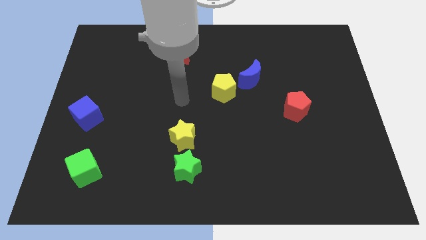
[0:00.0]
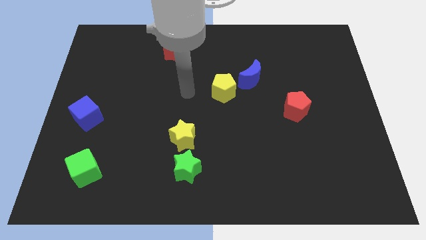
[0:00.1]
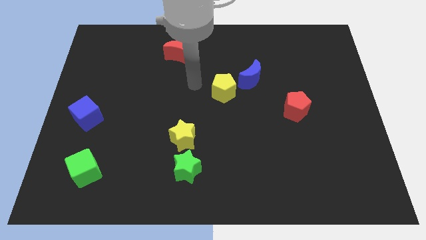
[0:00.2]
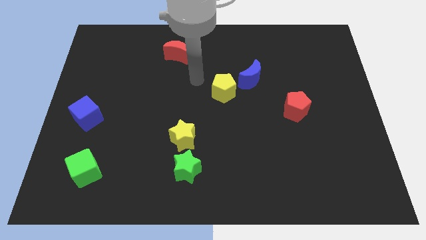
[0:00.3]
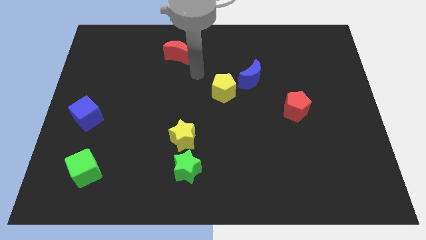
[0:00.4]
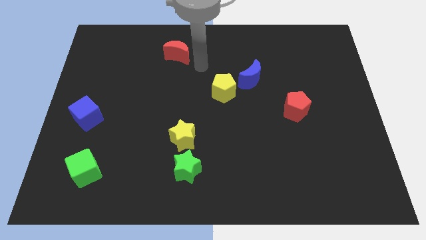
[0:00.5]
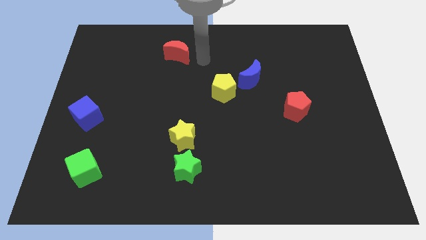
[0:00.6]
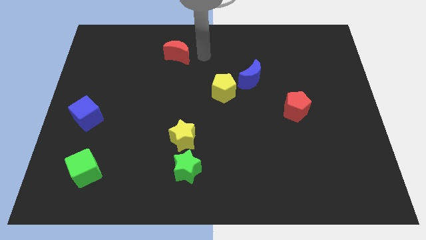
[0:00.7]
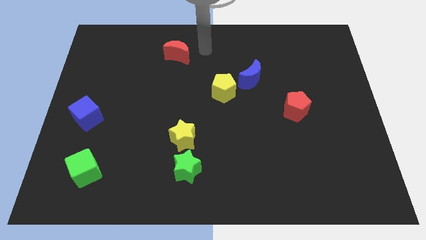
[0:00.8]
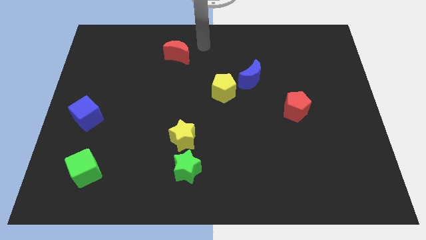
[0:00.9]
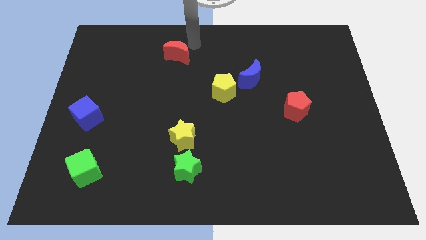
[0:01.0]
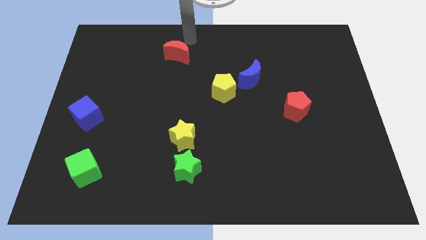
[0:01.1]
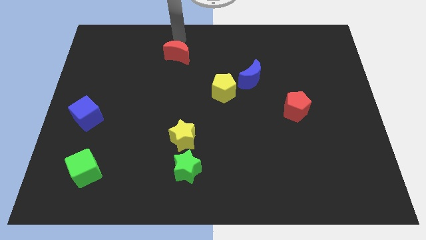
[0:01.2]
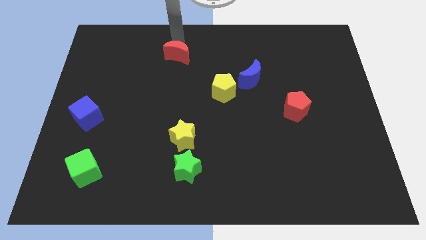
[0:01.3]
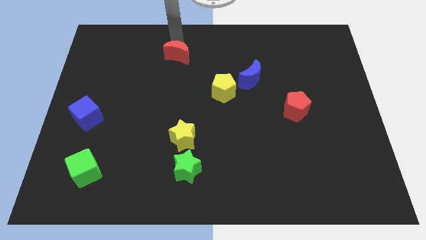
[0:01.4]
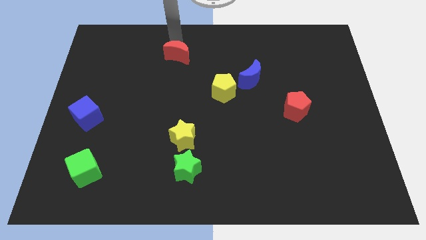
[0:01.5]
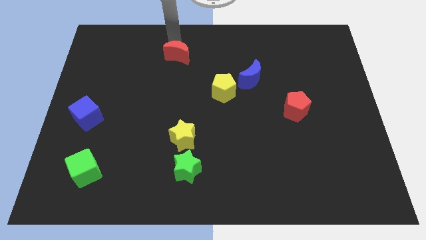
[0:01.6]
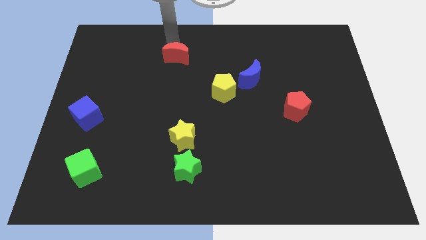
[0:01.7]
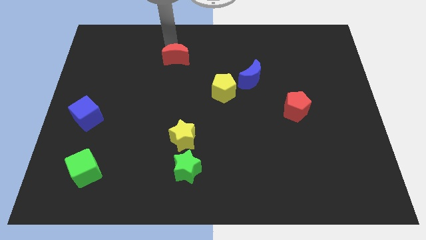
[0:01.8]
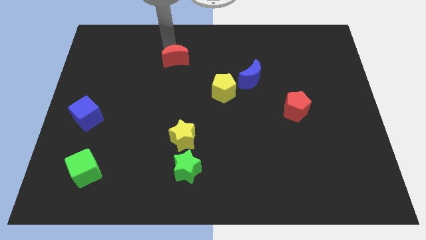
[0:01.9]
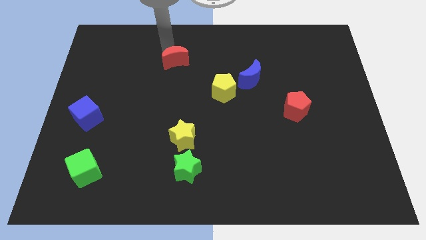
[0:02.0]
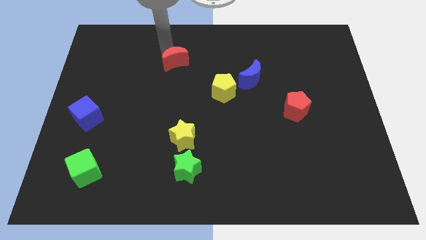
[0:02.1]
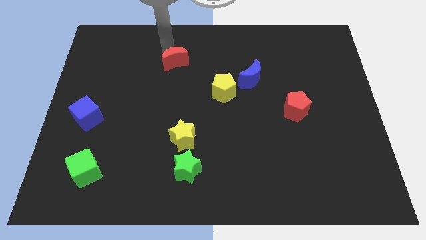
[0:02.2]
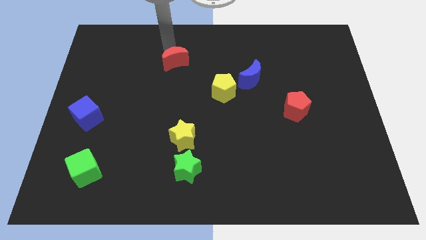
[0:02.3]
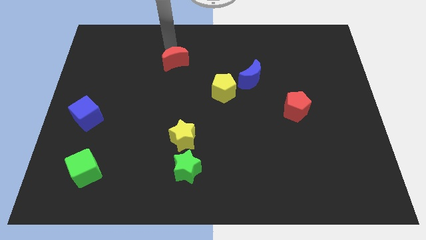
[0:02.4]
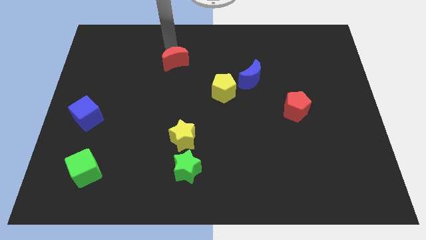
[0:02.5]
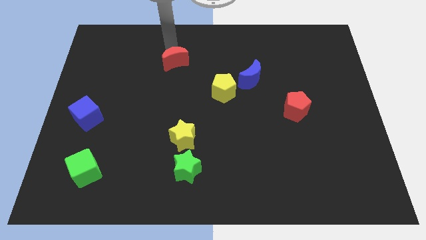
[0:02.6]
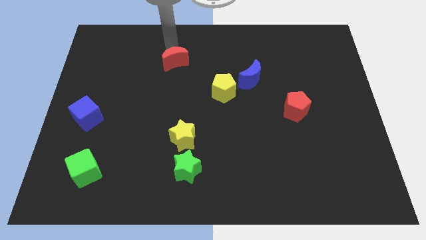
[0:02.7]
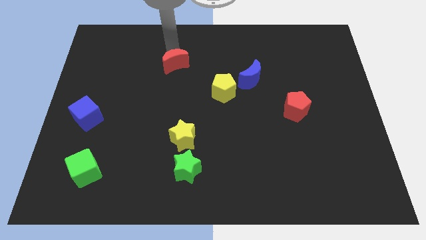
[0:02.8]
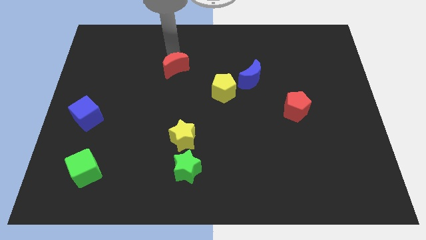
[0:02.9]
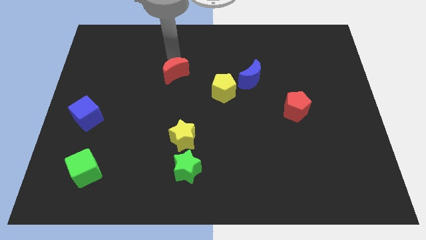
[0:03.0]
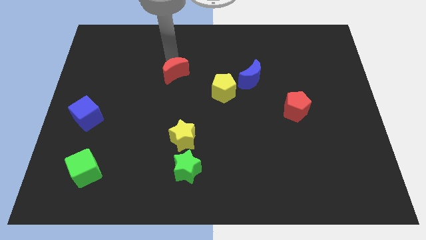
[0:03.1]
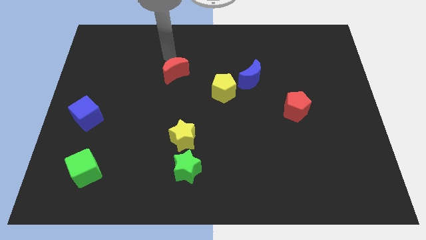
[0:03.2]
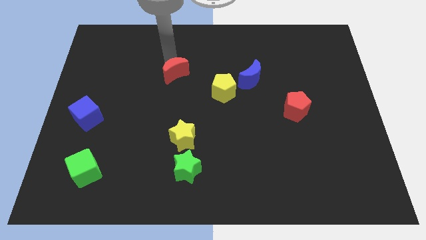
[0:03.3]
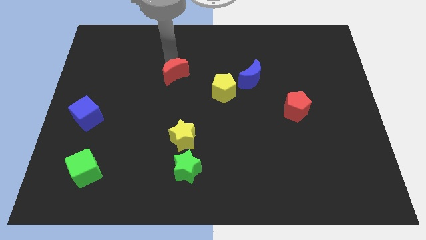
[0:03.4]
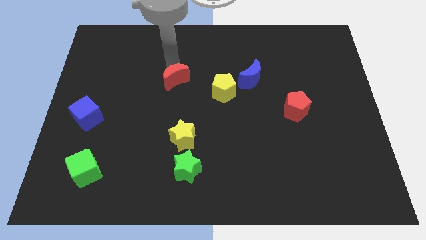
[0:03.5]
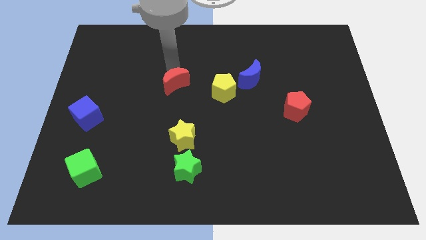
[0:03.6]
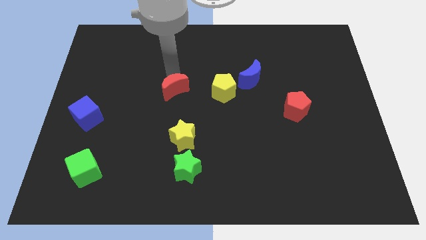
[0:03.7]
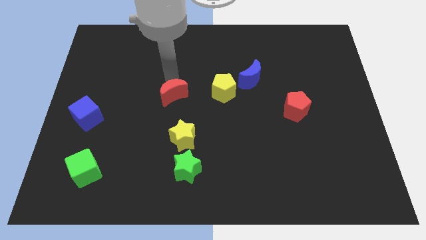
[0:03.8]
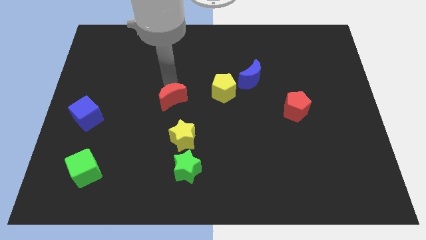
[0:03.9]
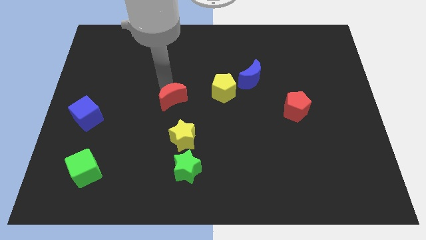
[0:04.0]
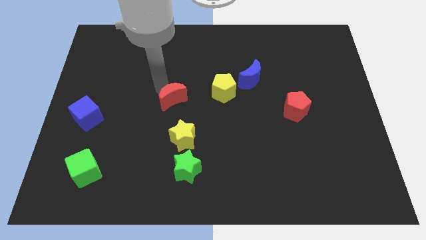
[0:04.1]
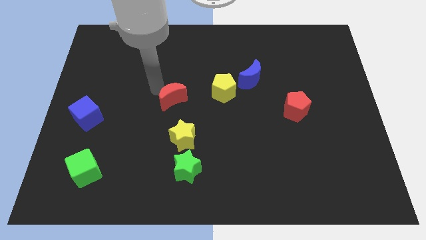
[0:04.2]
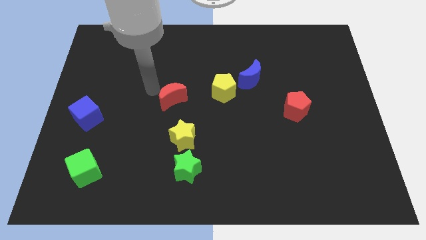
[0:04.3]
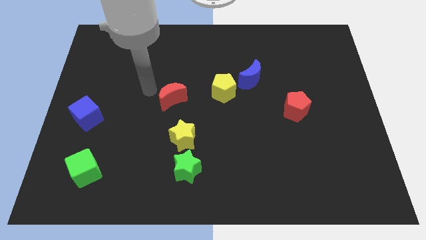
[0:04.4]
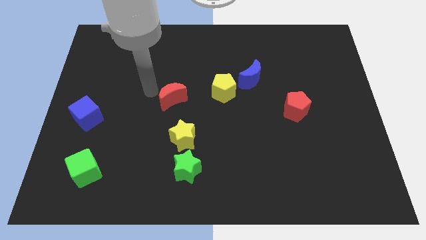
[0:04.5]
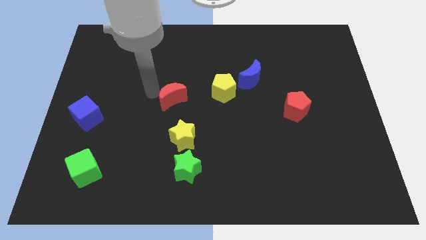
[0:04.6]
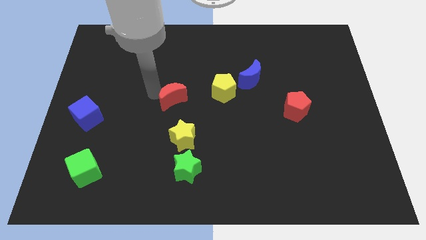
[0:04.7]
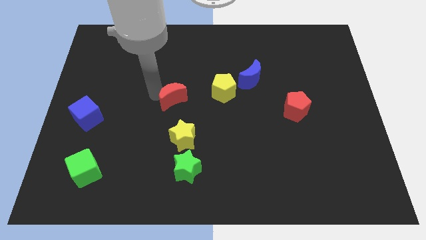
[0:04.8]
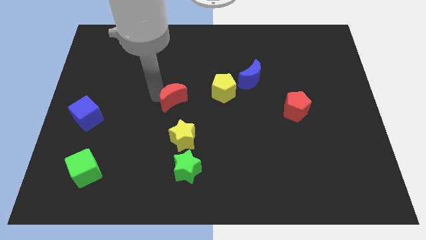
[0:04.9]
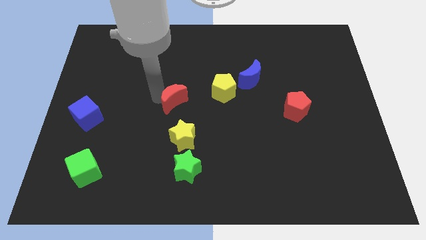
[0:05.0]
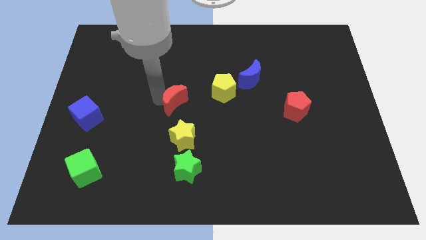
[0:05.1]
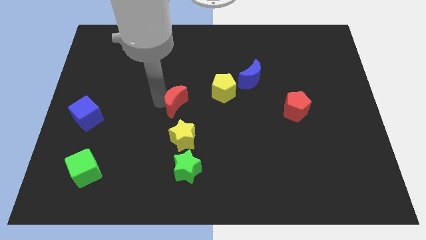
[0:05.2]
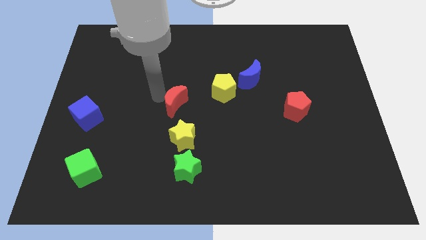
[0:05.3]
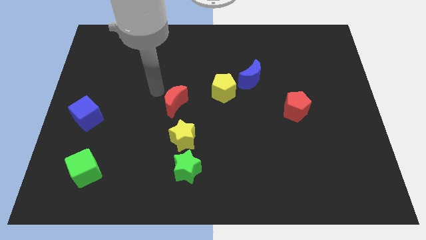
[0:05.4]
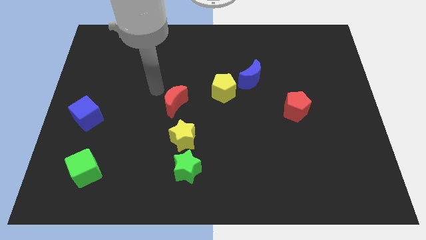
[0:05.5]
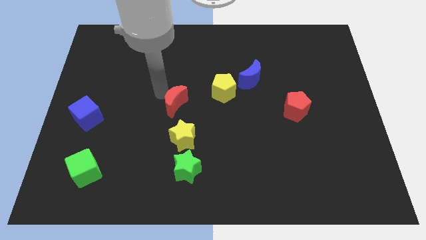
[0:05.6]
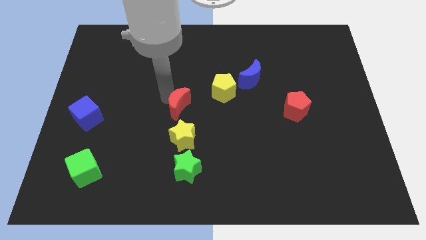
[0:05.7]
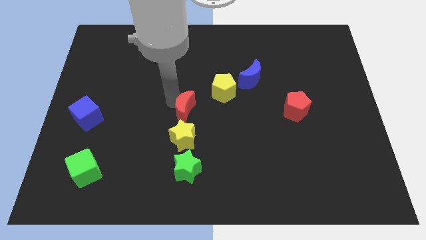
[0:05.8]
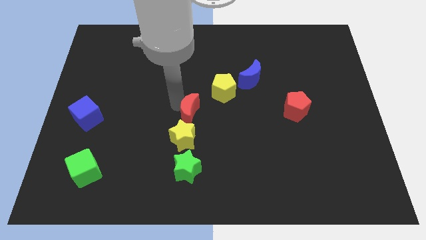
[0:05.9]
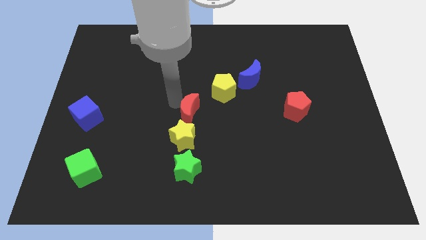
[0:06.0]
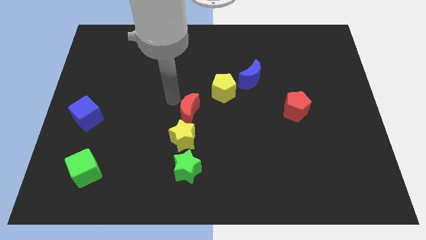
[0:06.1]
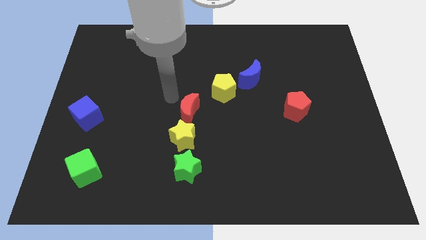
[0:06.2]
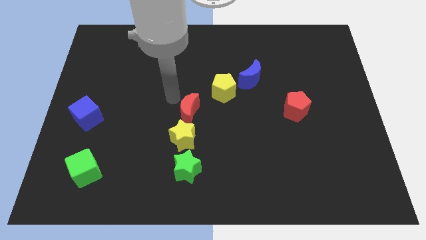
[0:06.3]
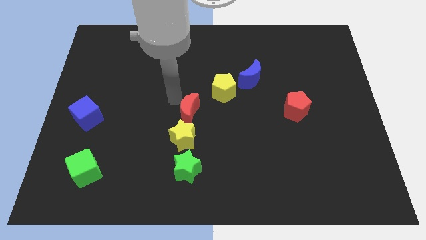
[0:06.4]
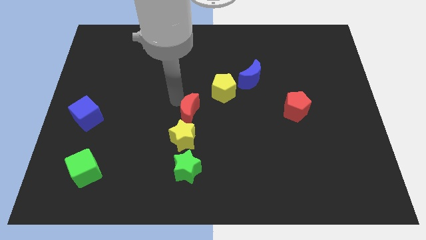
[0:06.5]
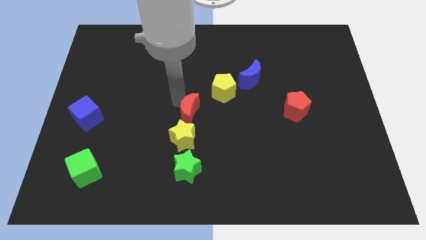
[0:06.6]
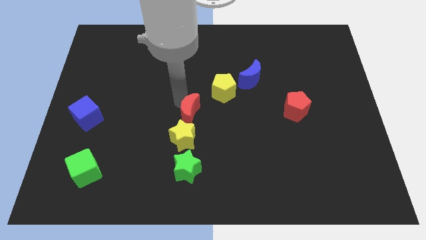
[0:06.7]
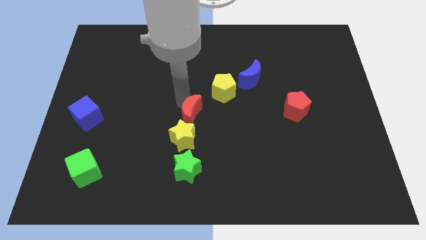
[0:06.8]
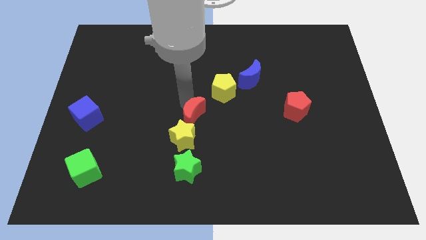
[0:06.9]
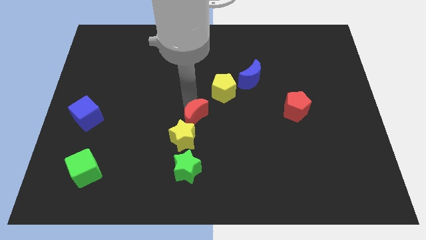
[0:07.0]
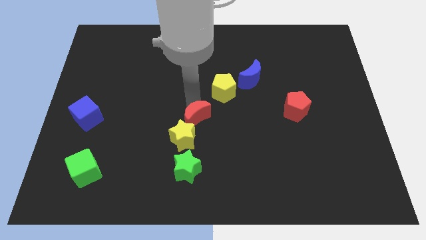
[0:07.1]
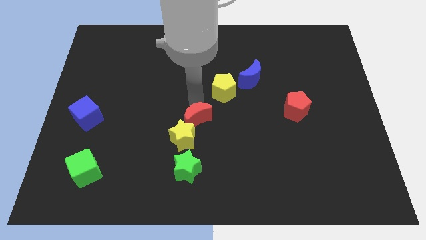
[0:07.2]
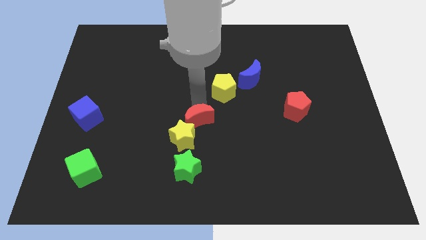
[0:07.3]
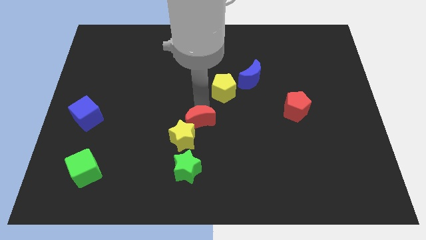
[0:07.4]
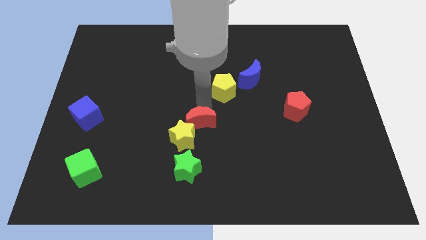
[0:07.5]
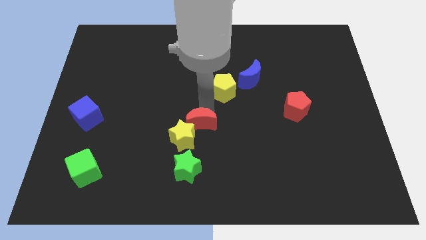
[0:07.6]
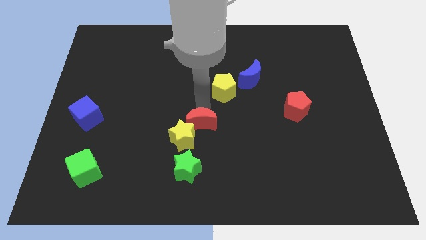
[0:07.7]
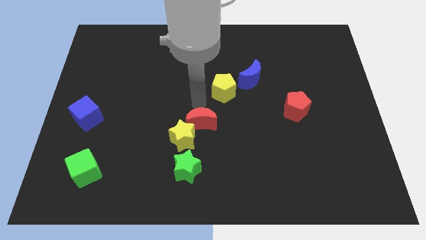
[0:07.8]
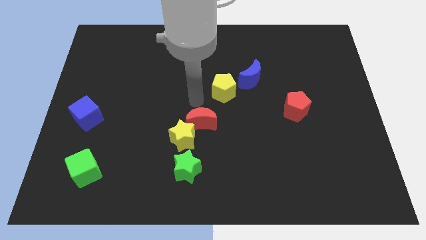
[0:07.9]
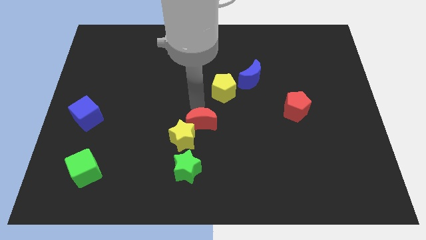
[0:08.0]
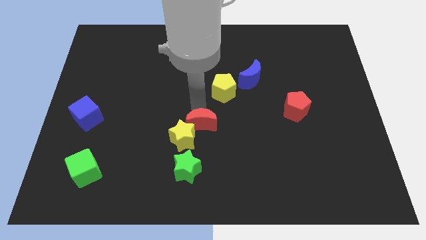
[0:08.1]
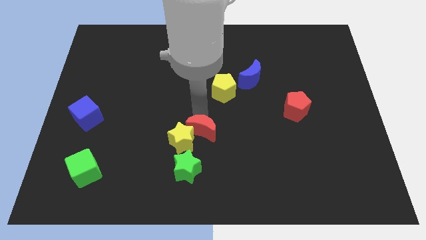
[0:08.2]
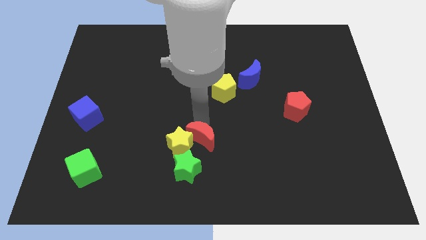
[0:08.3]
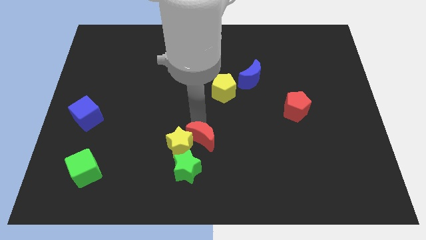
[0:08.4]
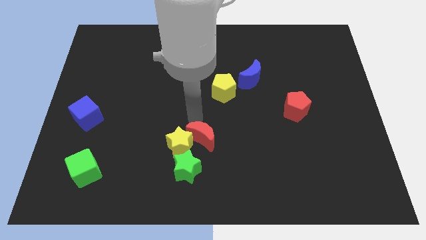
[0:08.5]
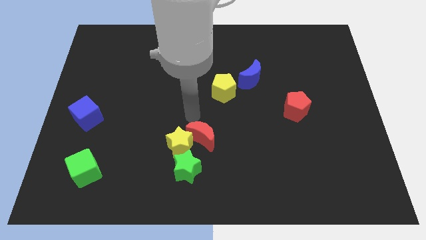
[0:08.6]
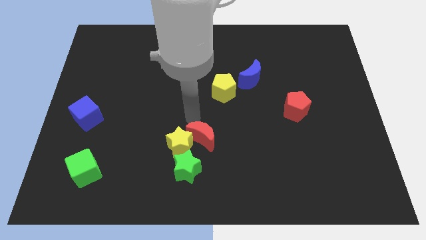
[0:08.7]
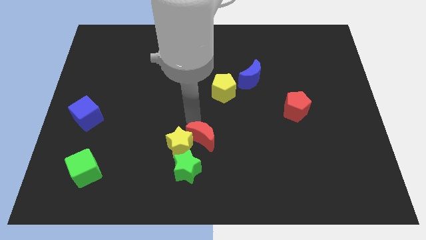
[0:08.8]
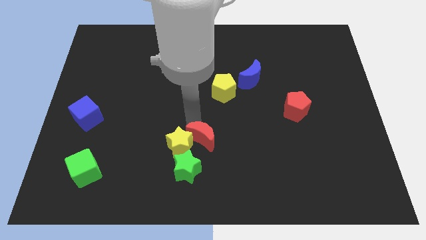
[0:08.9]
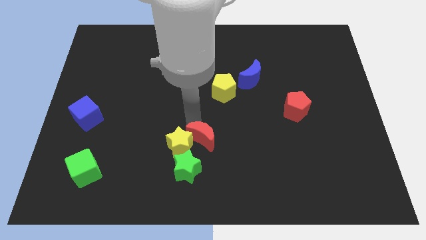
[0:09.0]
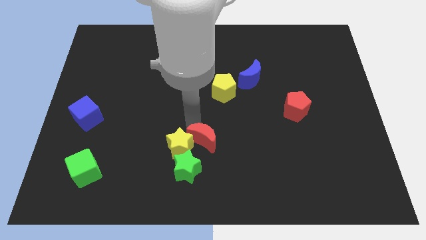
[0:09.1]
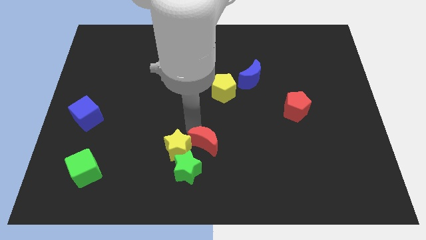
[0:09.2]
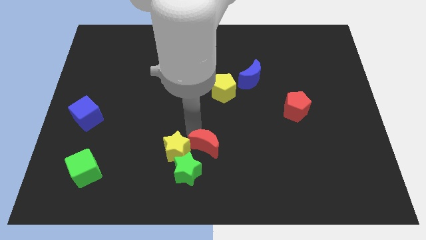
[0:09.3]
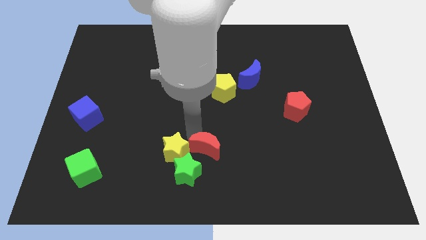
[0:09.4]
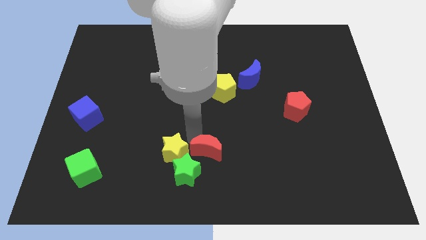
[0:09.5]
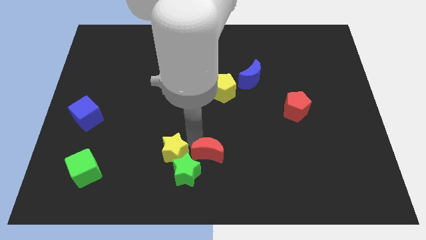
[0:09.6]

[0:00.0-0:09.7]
put the red moon to the bottom
